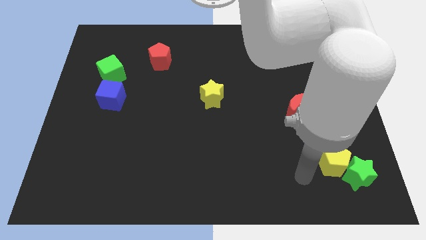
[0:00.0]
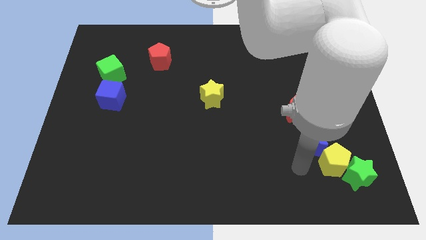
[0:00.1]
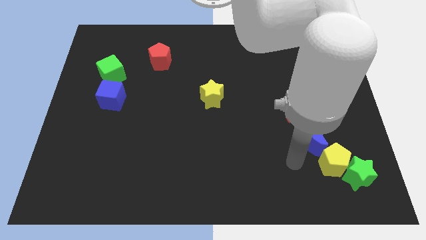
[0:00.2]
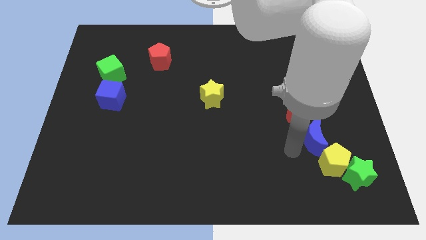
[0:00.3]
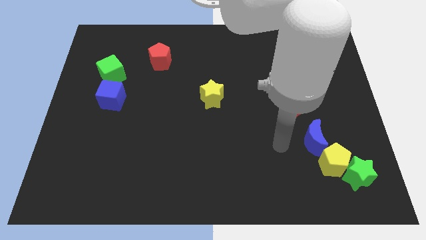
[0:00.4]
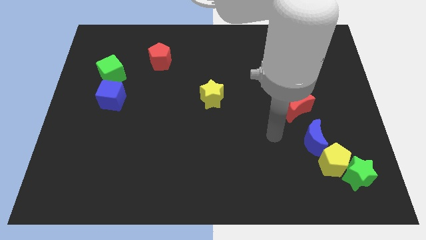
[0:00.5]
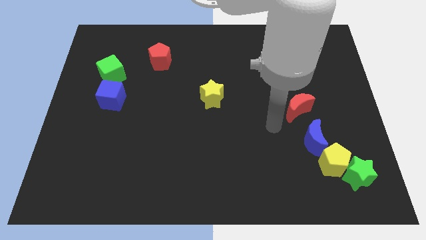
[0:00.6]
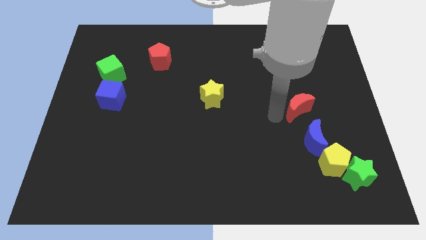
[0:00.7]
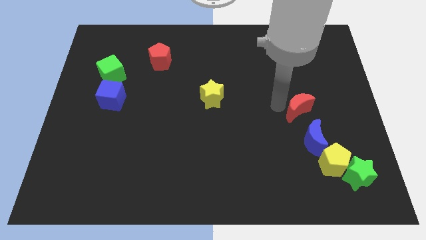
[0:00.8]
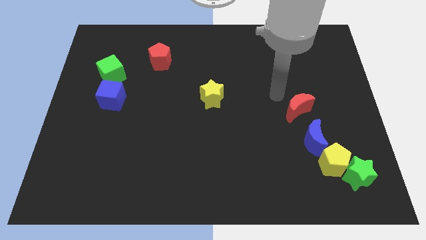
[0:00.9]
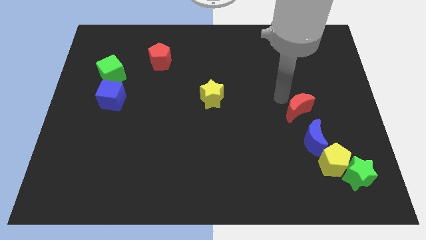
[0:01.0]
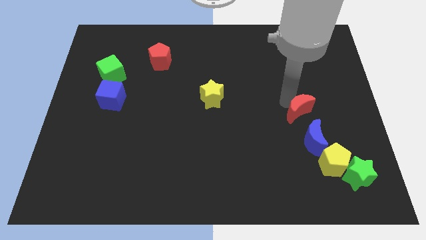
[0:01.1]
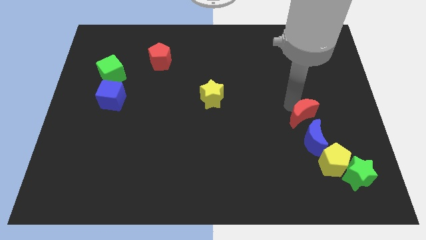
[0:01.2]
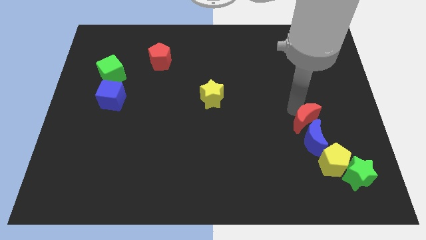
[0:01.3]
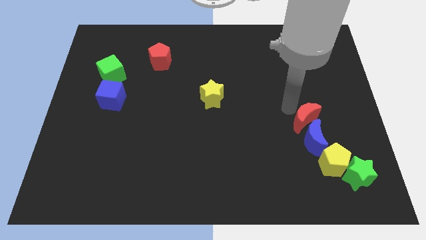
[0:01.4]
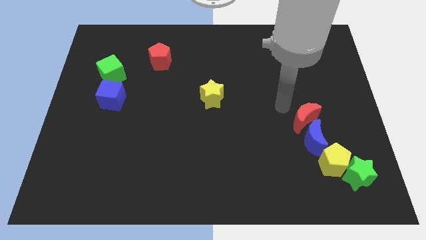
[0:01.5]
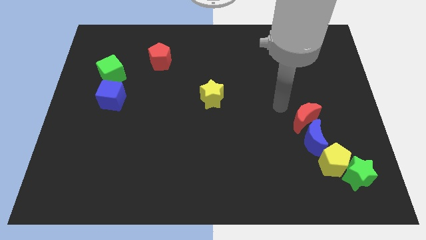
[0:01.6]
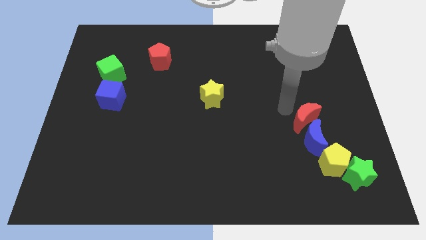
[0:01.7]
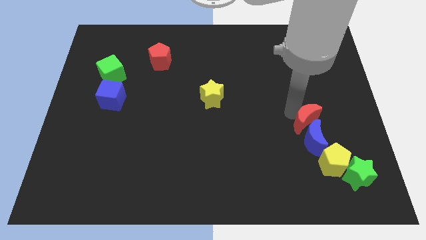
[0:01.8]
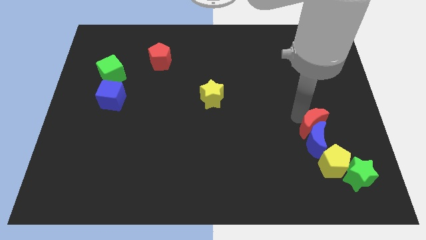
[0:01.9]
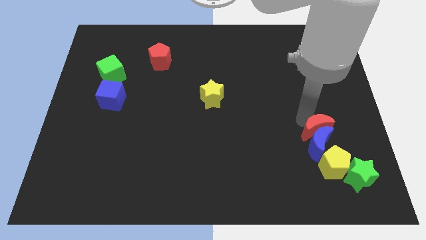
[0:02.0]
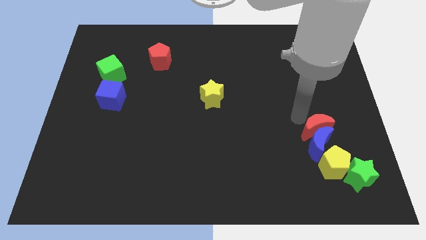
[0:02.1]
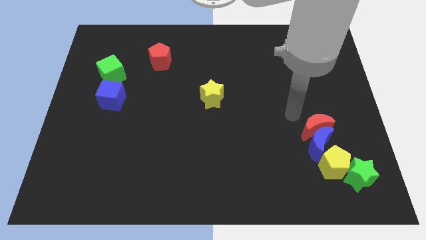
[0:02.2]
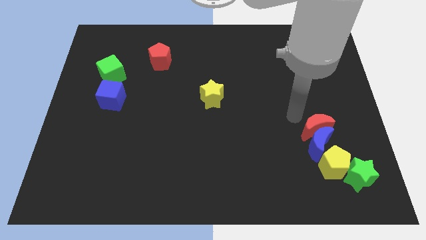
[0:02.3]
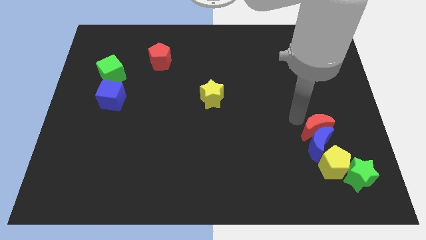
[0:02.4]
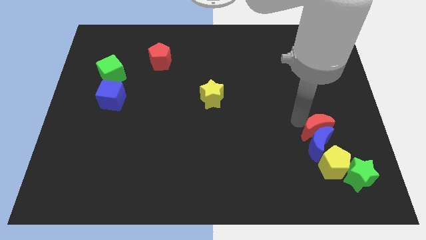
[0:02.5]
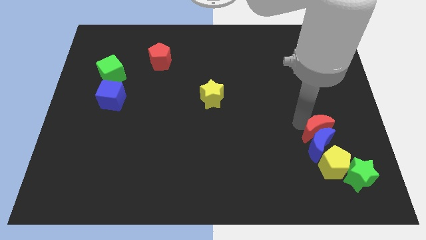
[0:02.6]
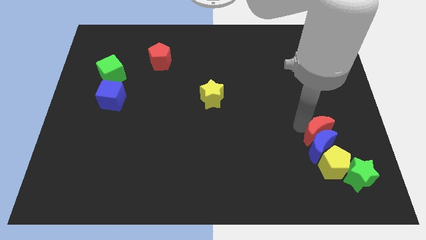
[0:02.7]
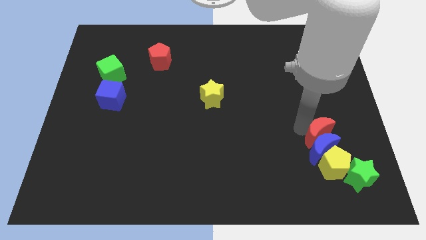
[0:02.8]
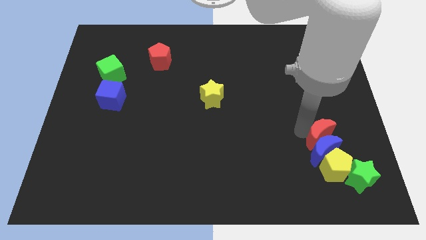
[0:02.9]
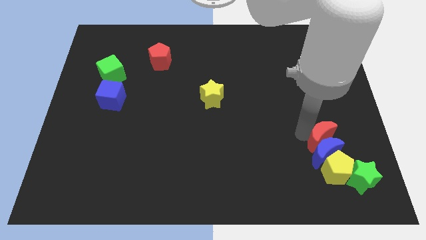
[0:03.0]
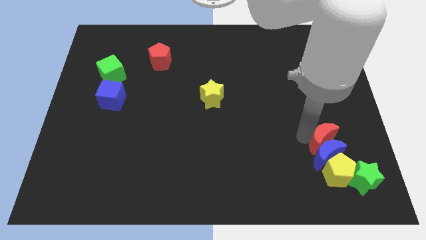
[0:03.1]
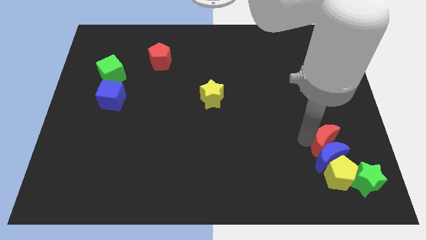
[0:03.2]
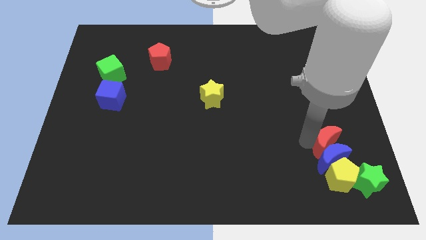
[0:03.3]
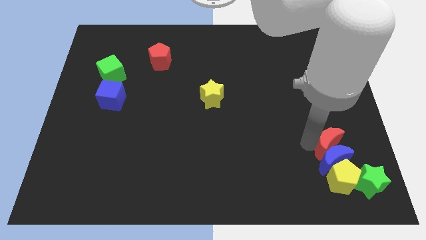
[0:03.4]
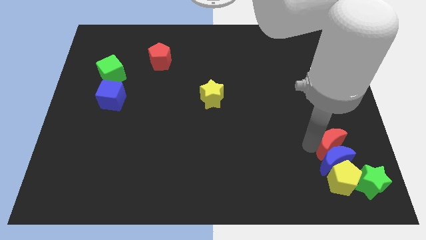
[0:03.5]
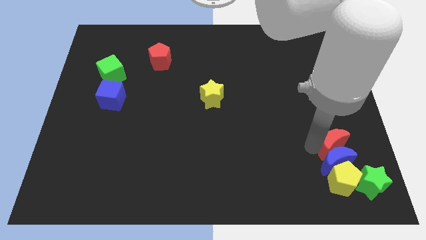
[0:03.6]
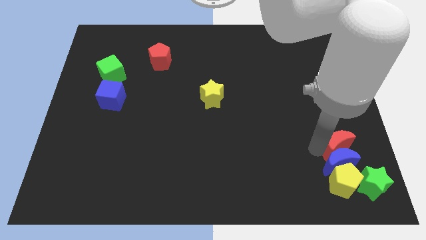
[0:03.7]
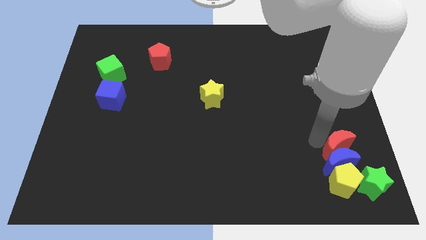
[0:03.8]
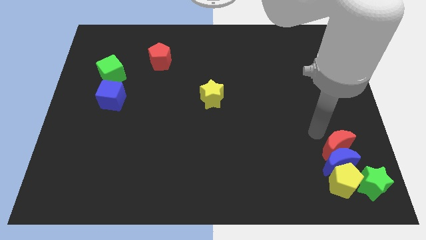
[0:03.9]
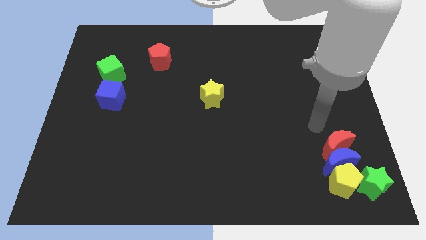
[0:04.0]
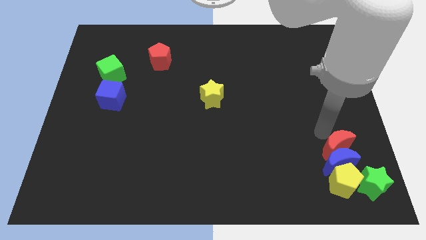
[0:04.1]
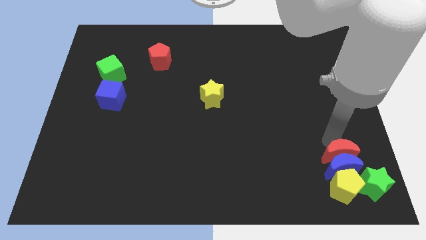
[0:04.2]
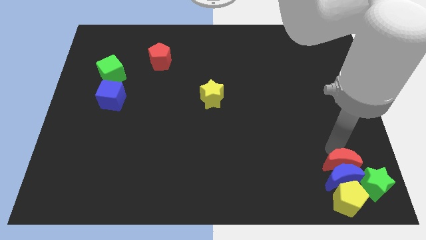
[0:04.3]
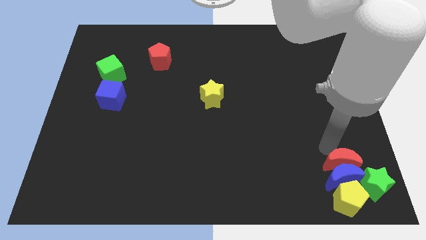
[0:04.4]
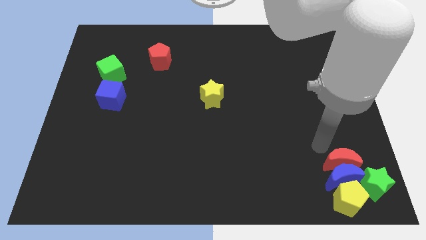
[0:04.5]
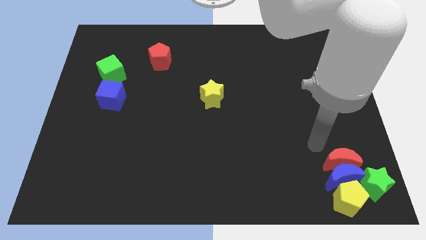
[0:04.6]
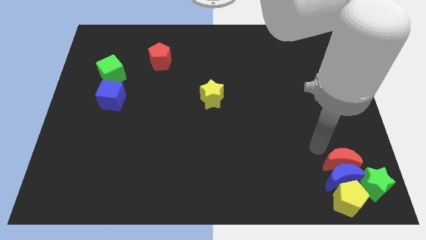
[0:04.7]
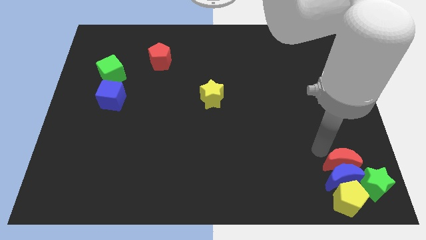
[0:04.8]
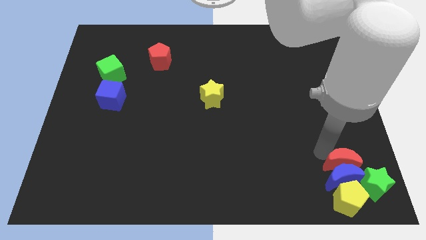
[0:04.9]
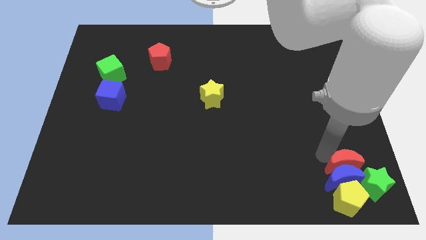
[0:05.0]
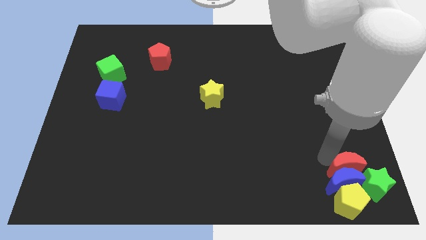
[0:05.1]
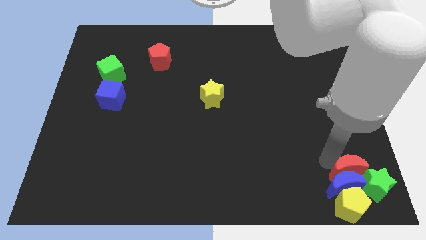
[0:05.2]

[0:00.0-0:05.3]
slide the red moon next to the green star

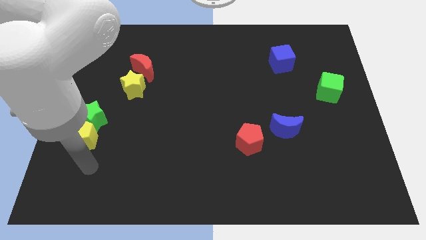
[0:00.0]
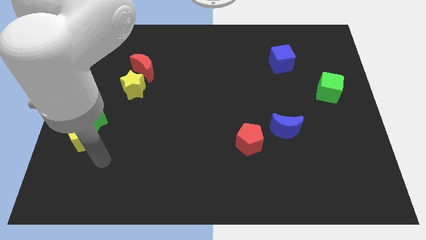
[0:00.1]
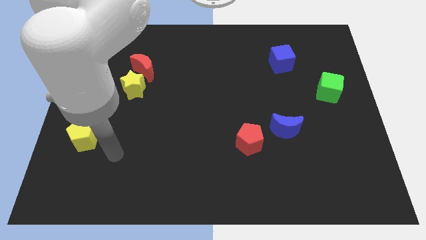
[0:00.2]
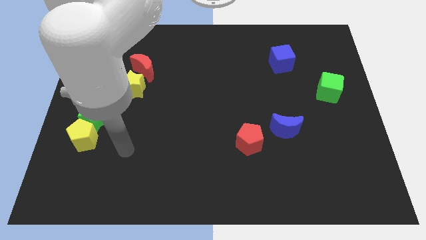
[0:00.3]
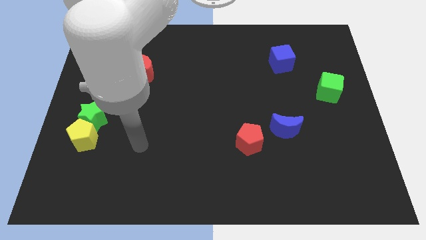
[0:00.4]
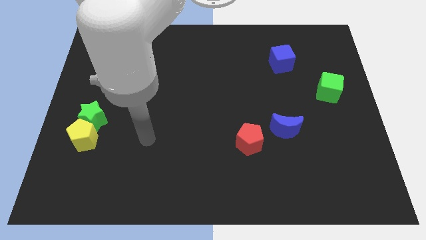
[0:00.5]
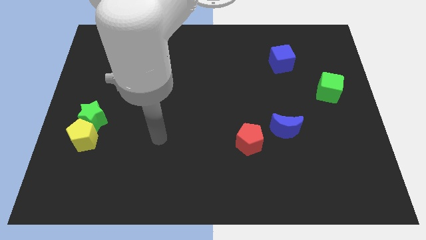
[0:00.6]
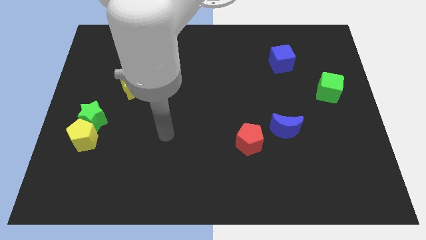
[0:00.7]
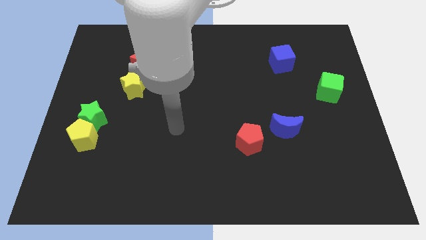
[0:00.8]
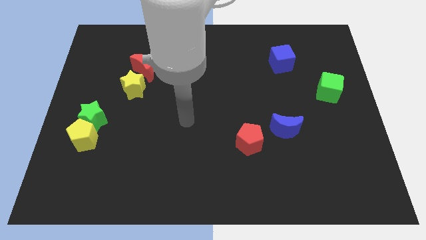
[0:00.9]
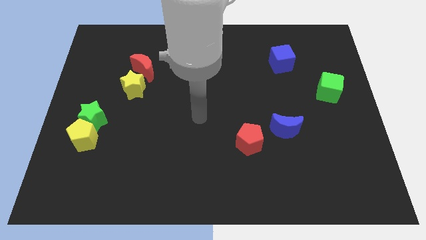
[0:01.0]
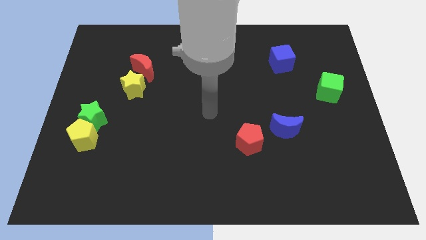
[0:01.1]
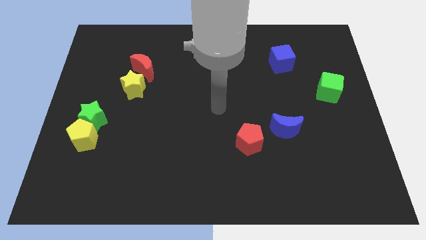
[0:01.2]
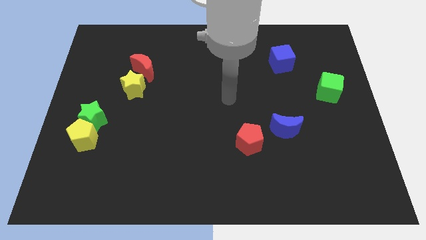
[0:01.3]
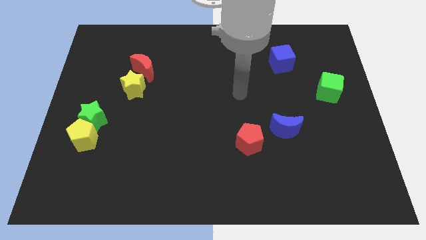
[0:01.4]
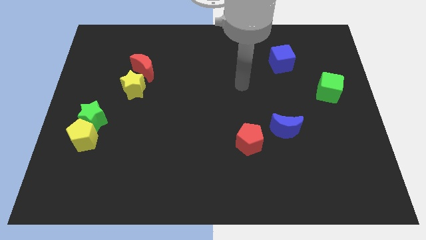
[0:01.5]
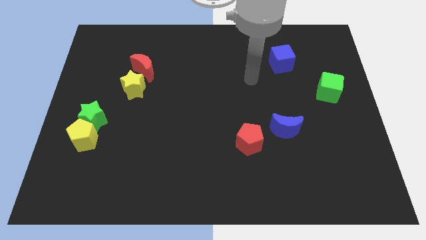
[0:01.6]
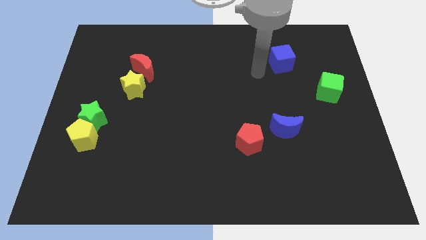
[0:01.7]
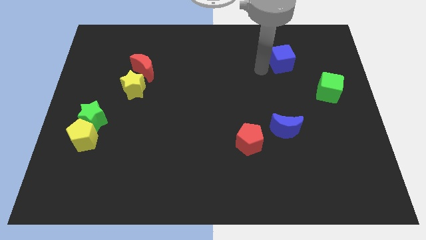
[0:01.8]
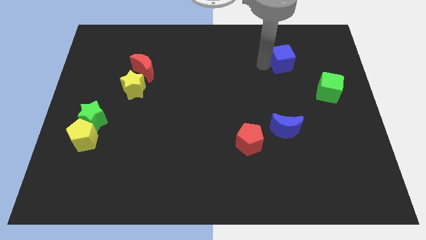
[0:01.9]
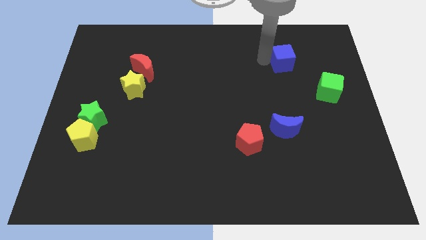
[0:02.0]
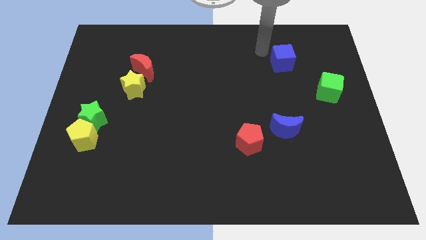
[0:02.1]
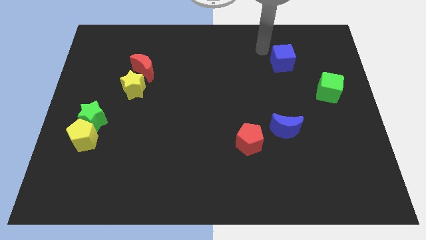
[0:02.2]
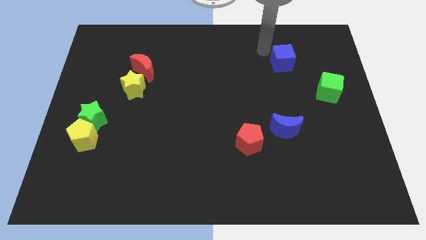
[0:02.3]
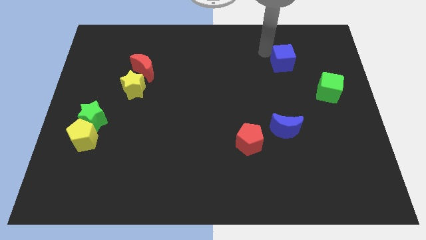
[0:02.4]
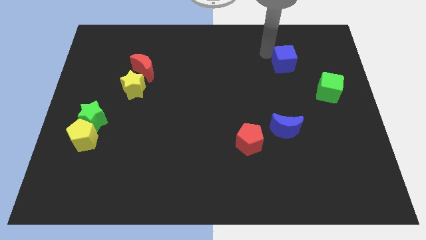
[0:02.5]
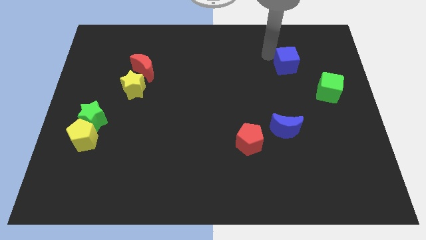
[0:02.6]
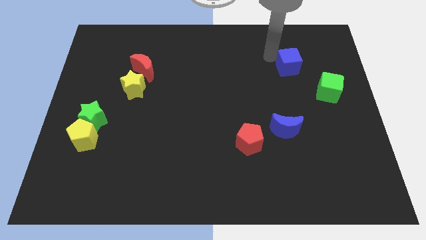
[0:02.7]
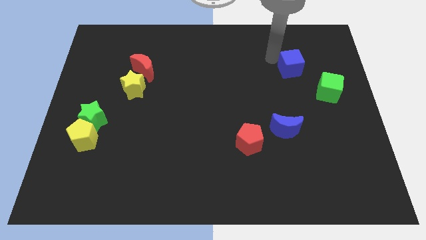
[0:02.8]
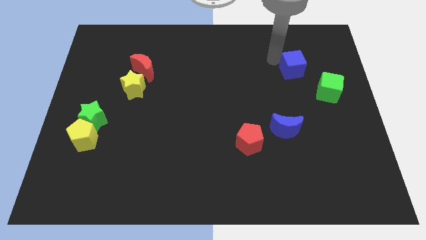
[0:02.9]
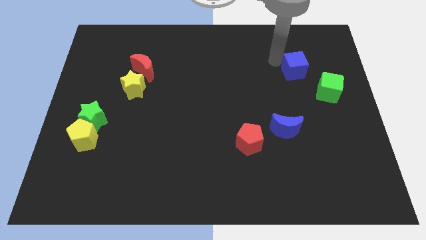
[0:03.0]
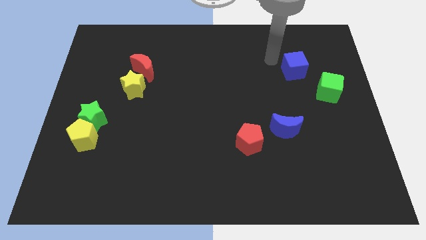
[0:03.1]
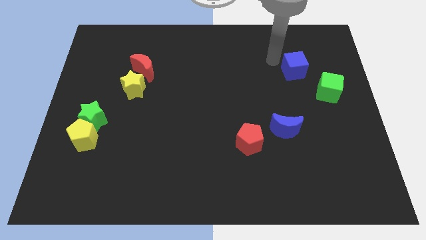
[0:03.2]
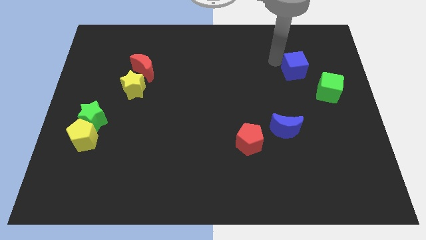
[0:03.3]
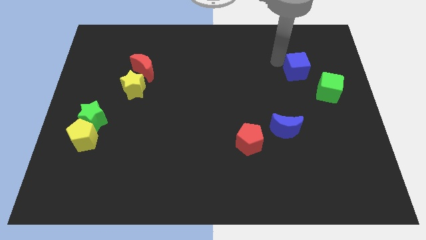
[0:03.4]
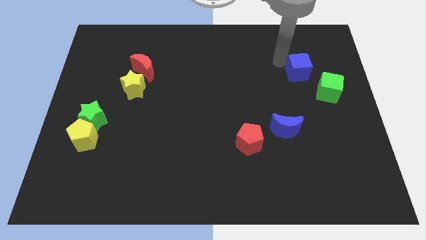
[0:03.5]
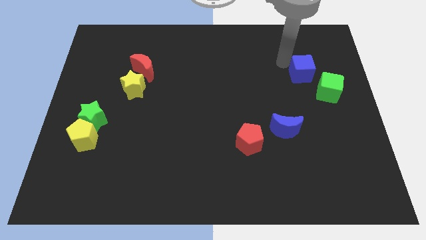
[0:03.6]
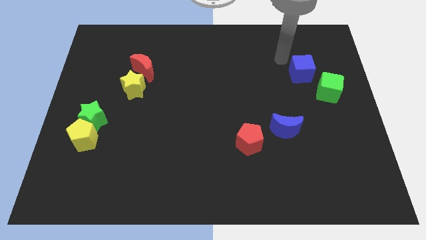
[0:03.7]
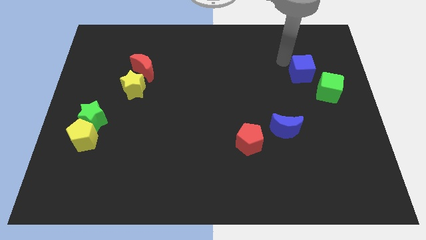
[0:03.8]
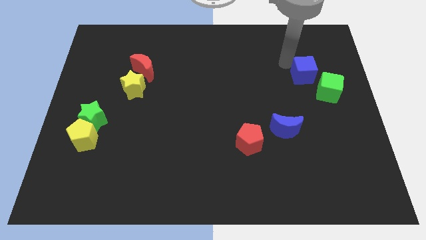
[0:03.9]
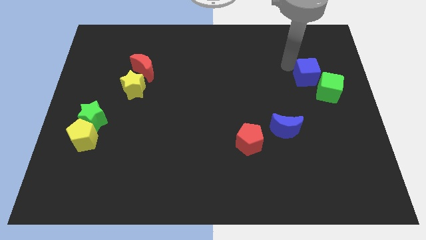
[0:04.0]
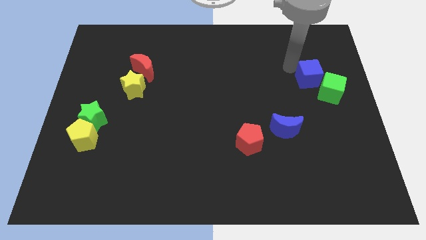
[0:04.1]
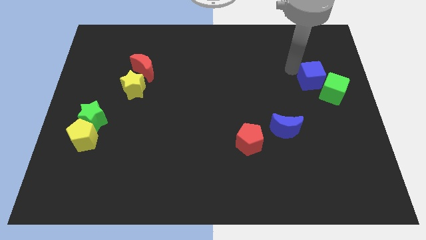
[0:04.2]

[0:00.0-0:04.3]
push the blue cube next to the green cube
